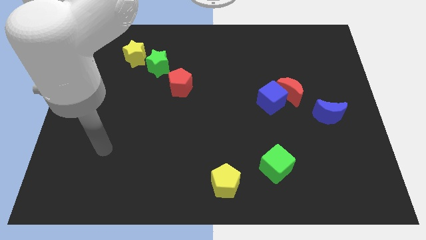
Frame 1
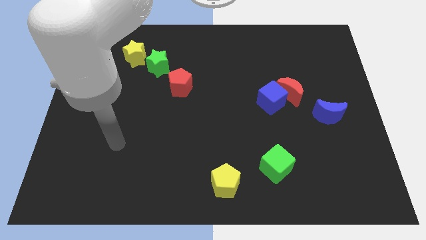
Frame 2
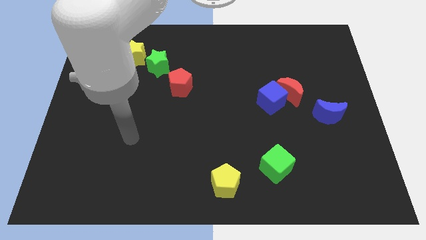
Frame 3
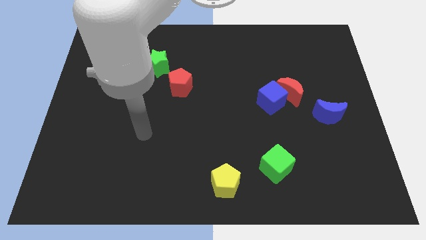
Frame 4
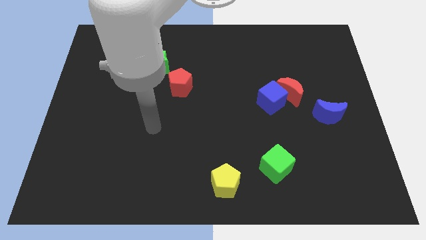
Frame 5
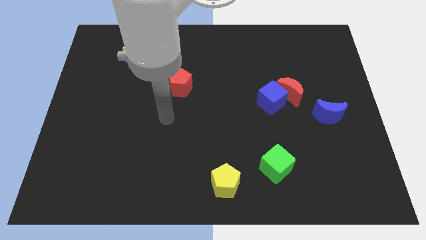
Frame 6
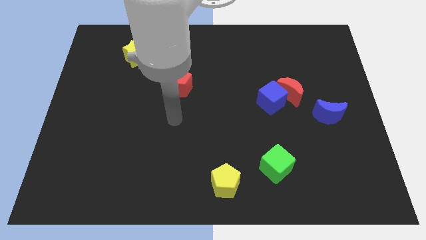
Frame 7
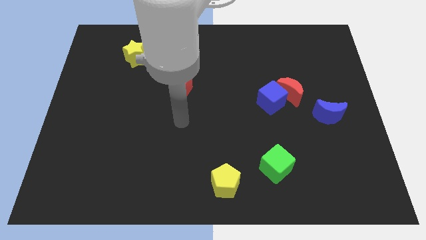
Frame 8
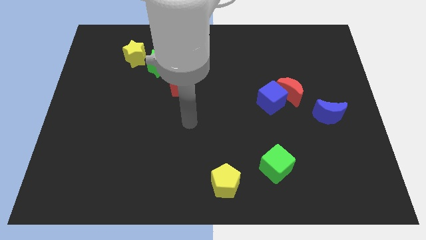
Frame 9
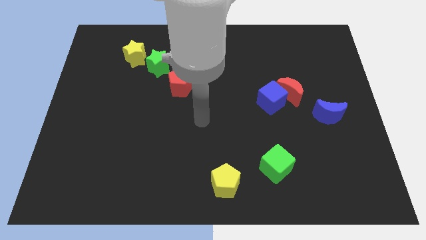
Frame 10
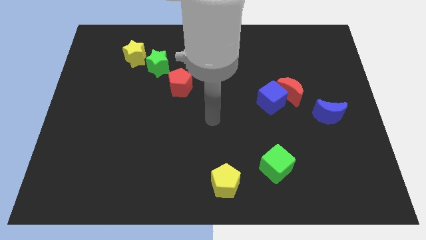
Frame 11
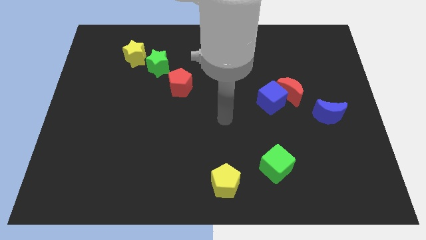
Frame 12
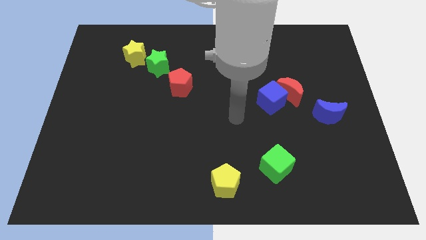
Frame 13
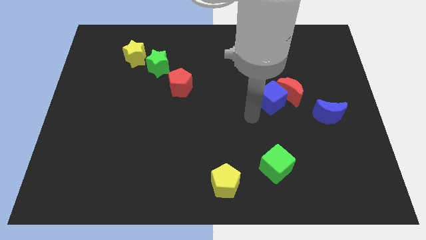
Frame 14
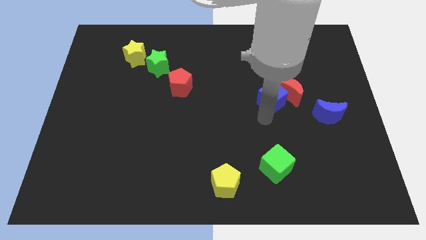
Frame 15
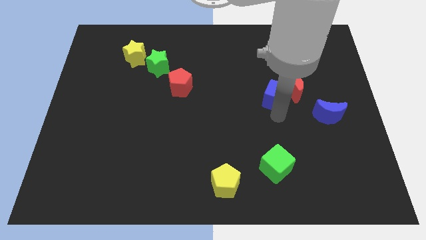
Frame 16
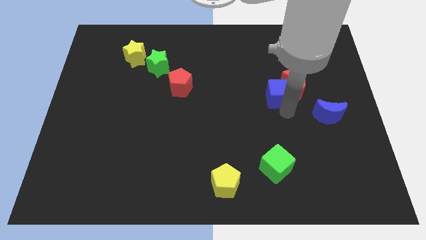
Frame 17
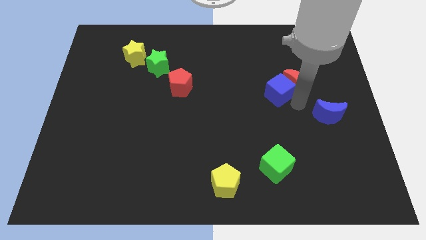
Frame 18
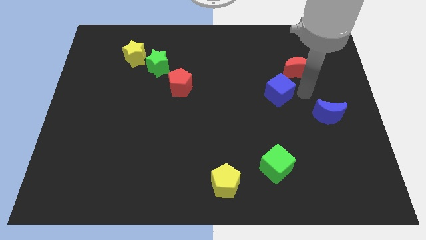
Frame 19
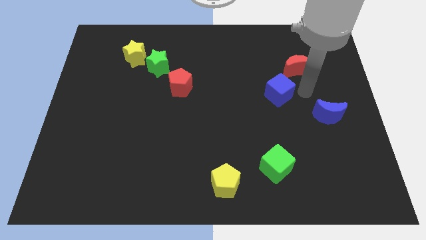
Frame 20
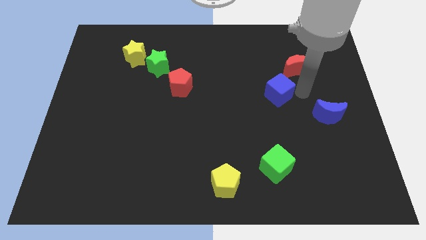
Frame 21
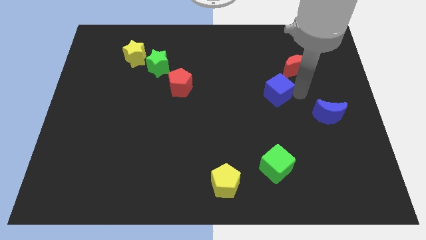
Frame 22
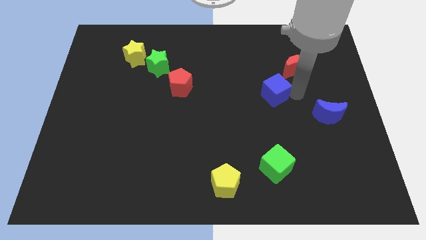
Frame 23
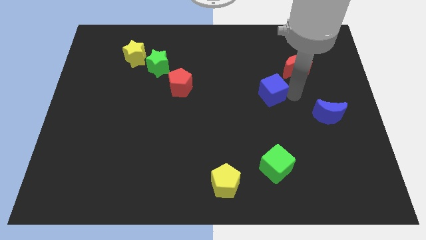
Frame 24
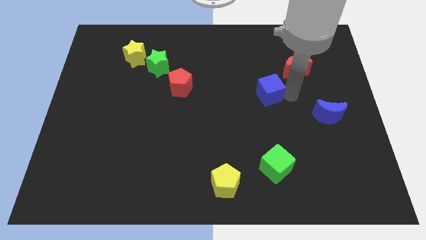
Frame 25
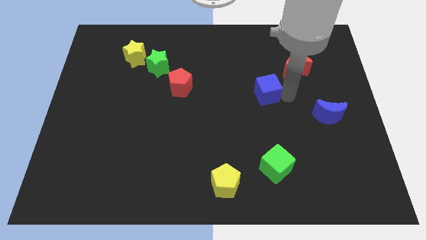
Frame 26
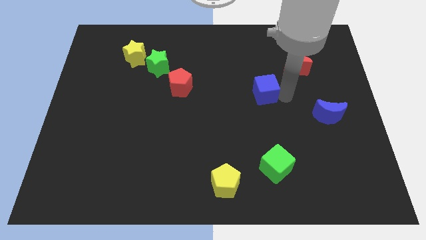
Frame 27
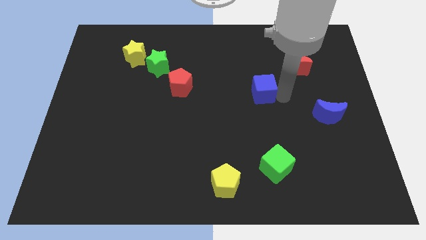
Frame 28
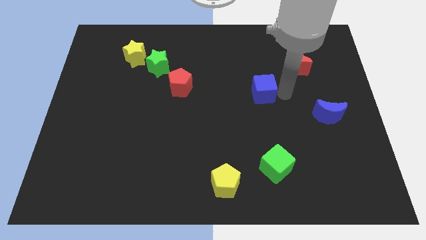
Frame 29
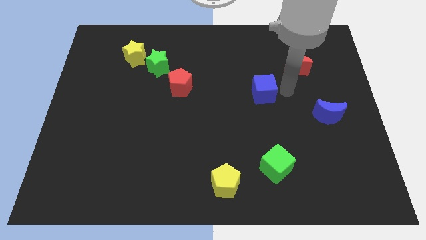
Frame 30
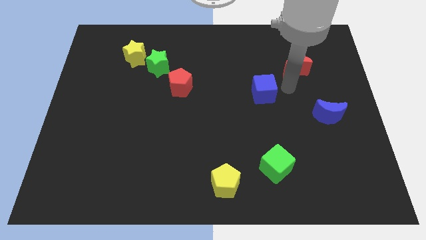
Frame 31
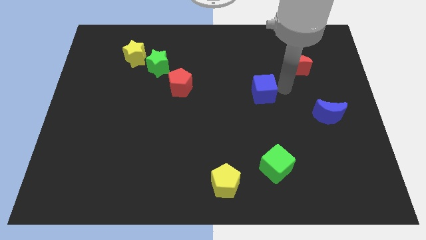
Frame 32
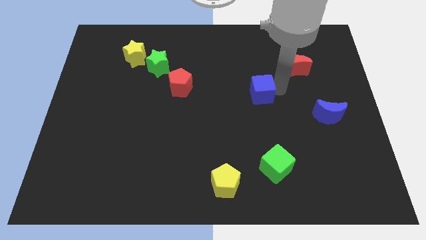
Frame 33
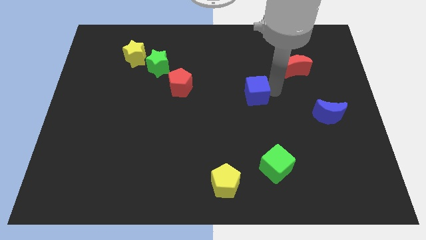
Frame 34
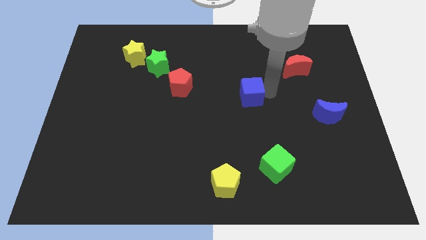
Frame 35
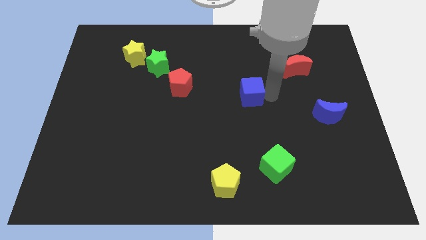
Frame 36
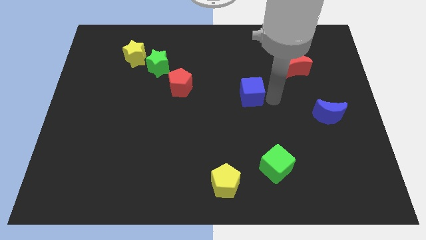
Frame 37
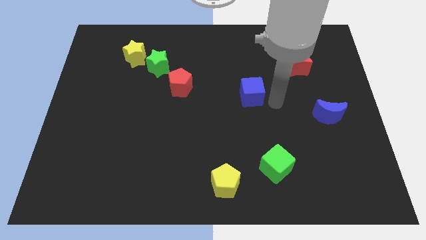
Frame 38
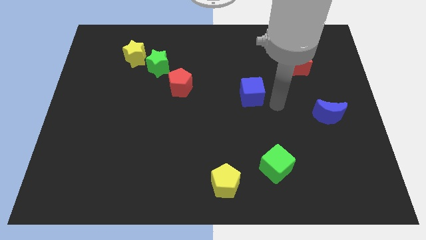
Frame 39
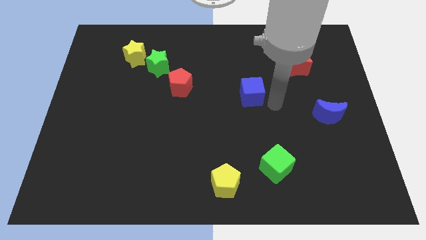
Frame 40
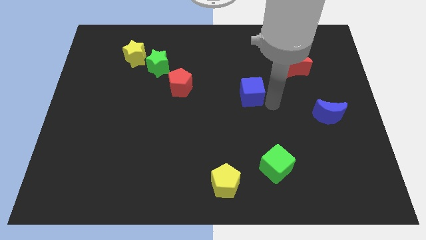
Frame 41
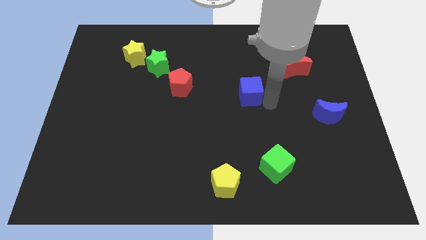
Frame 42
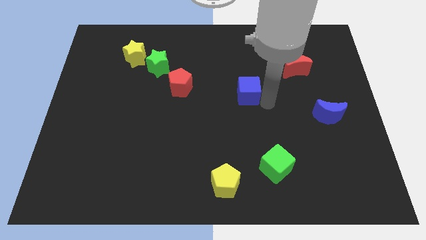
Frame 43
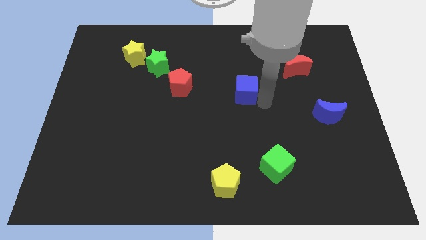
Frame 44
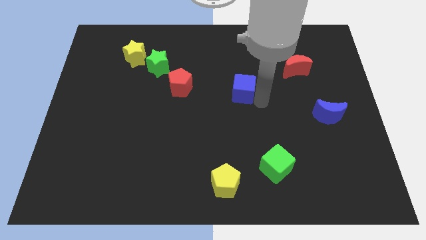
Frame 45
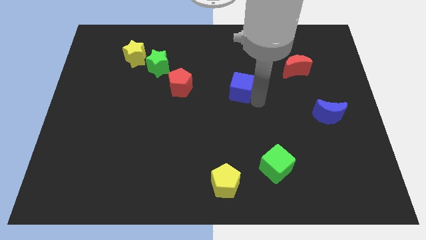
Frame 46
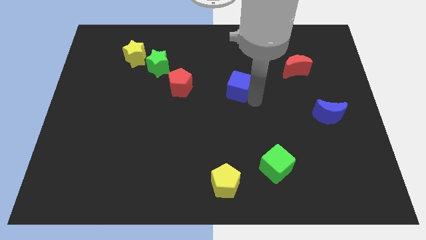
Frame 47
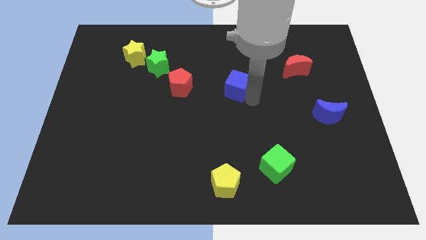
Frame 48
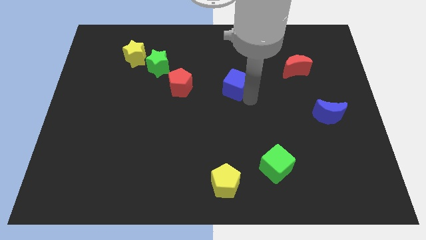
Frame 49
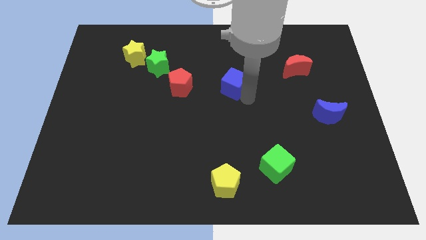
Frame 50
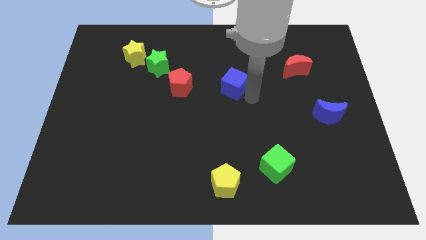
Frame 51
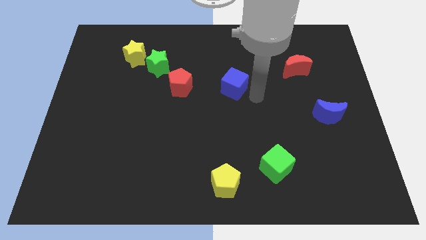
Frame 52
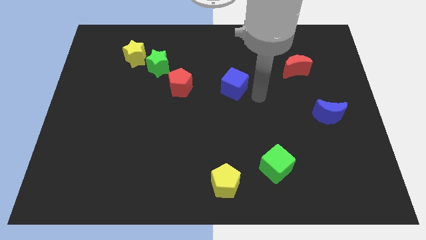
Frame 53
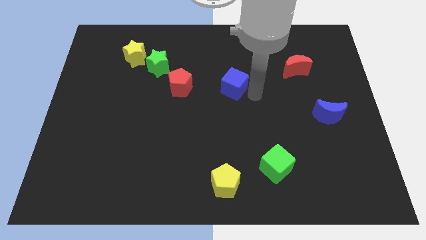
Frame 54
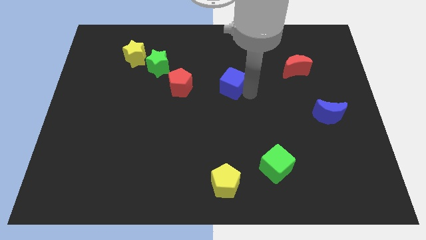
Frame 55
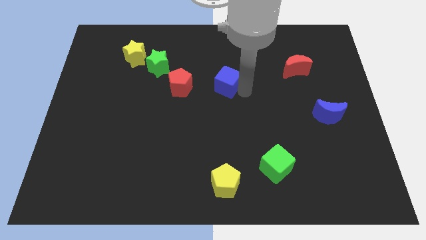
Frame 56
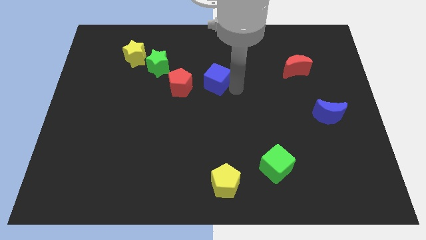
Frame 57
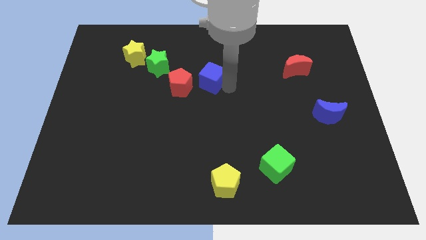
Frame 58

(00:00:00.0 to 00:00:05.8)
slide the blue cube to the top right side of the red pentagon

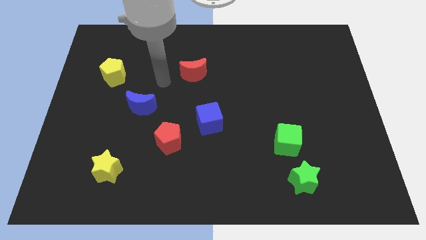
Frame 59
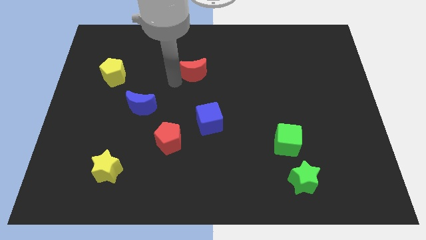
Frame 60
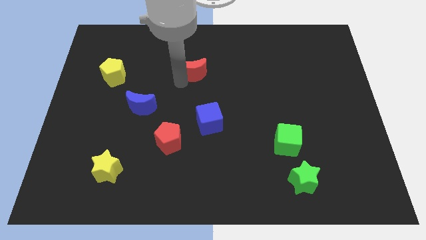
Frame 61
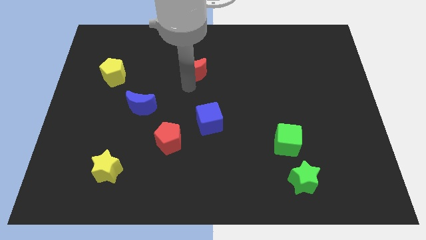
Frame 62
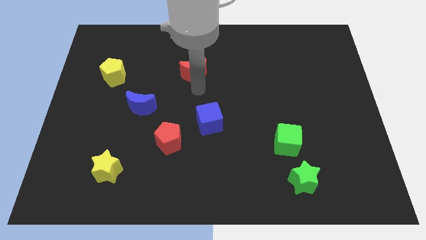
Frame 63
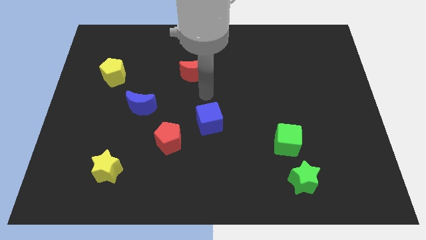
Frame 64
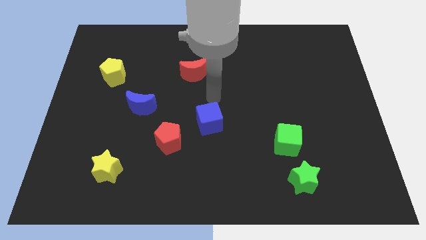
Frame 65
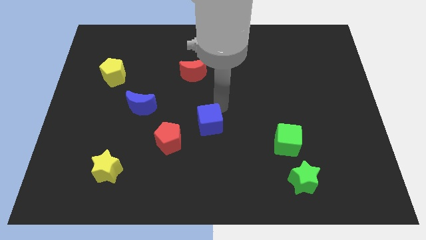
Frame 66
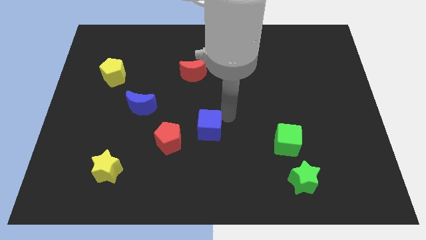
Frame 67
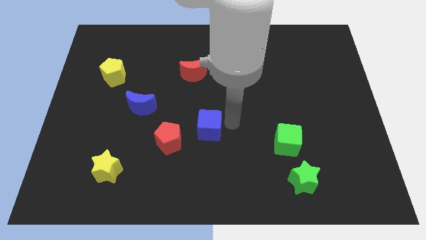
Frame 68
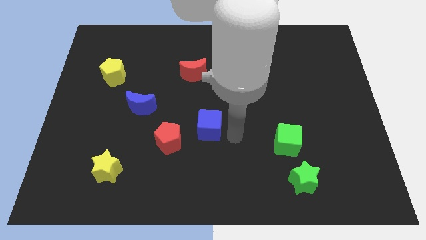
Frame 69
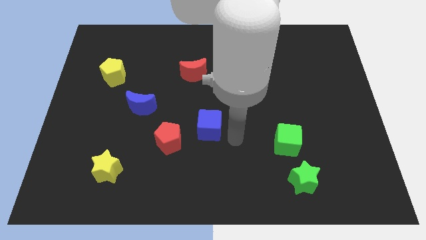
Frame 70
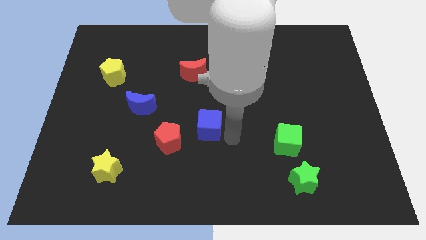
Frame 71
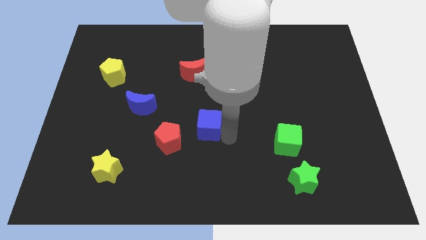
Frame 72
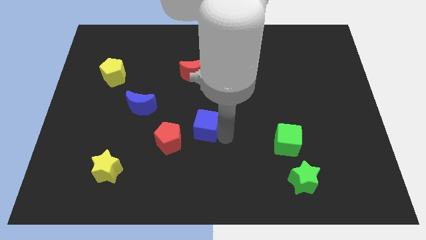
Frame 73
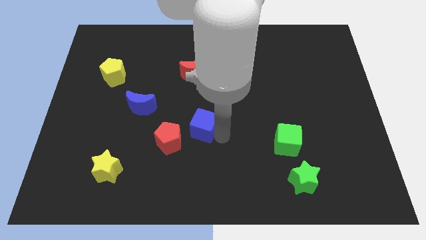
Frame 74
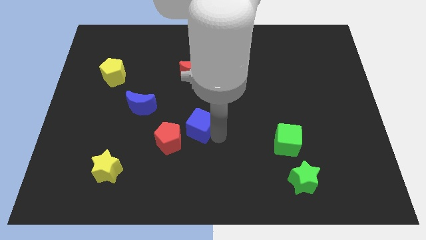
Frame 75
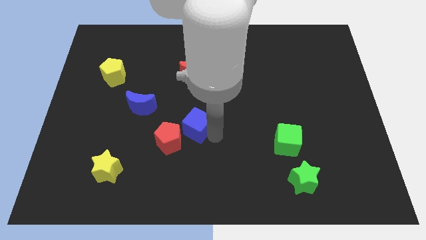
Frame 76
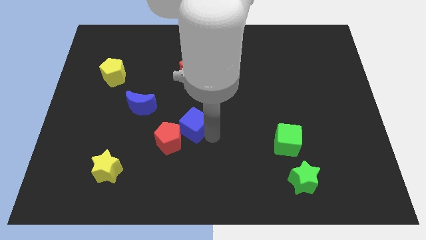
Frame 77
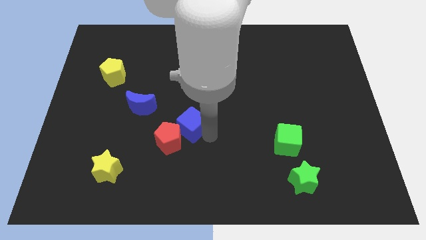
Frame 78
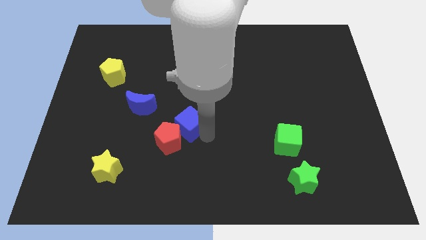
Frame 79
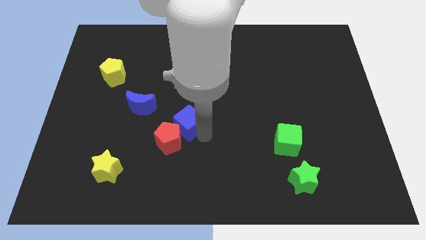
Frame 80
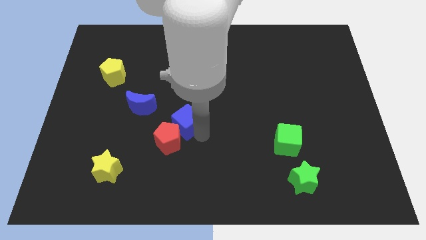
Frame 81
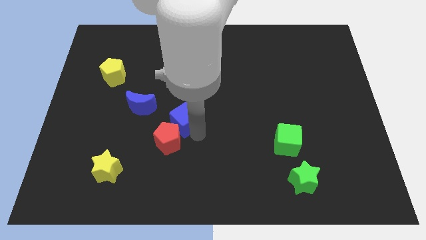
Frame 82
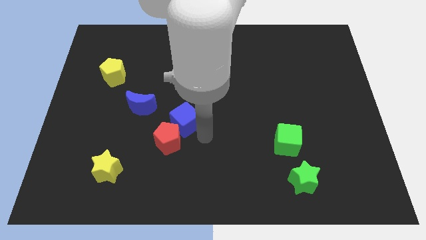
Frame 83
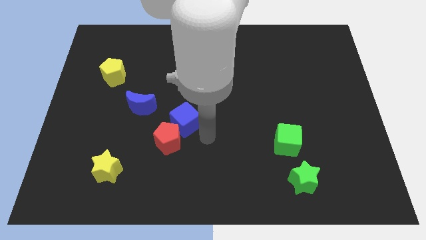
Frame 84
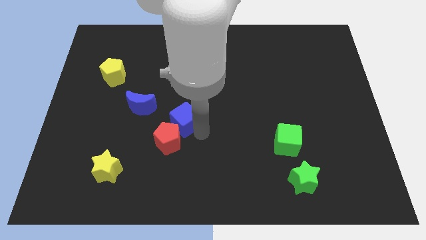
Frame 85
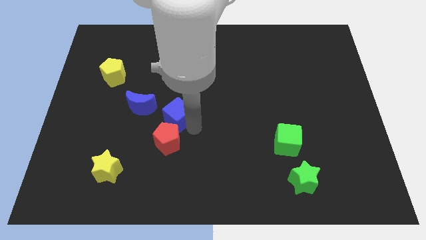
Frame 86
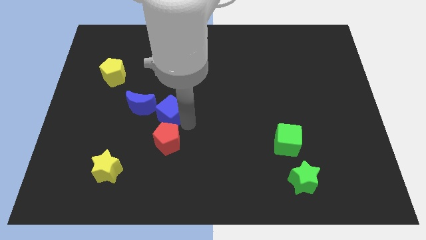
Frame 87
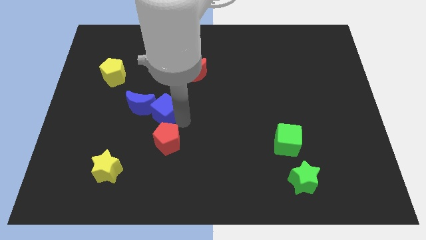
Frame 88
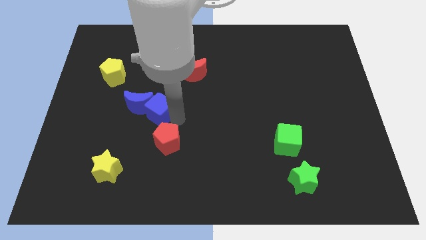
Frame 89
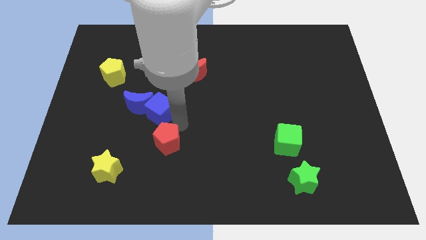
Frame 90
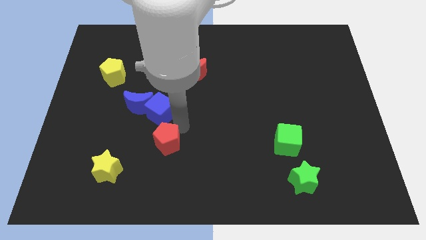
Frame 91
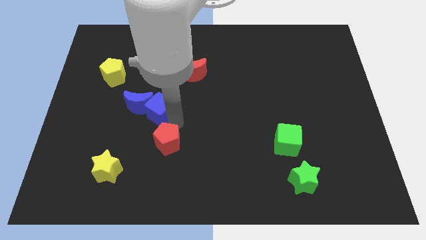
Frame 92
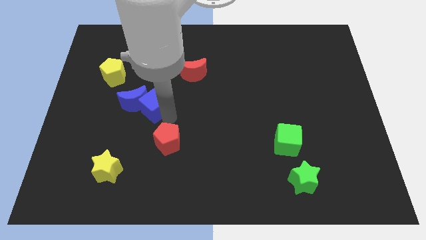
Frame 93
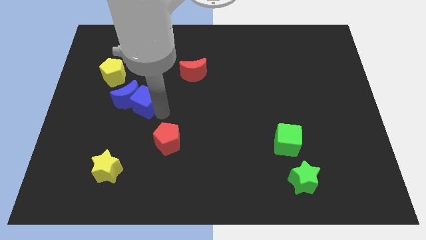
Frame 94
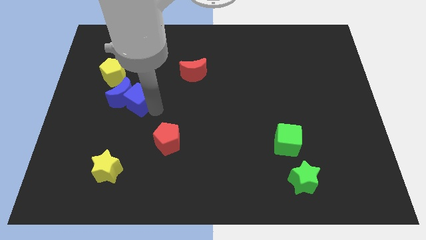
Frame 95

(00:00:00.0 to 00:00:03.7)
move the blue cube to the bottom right of the yellow pentagon
